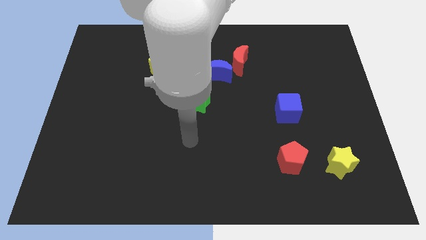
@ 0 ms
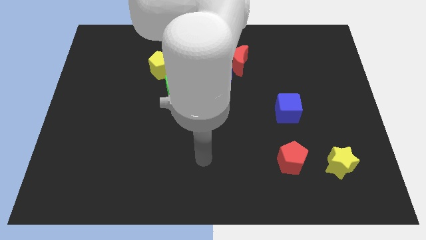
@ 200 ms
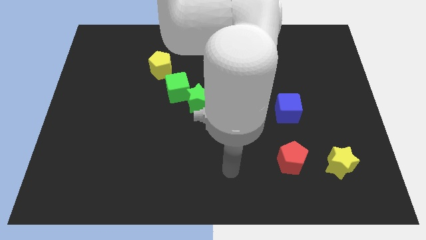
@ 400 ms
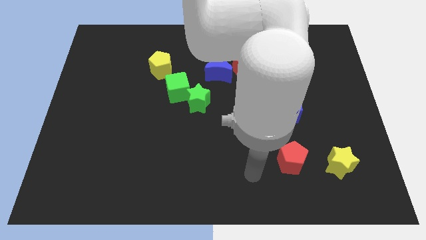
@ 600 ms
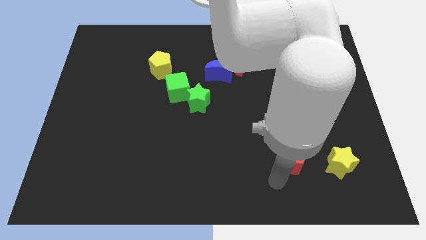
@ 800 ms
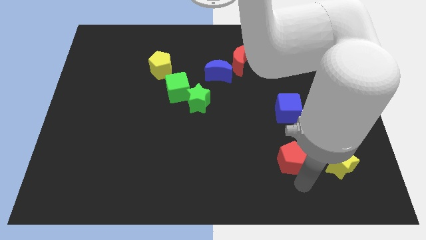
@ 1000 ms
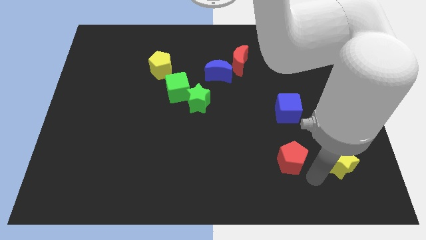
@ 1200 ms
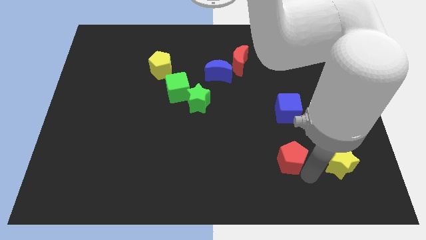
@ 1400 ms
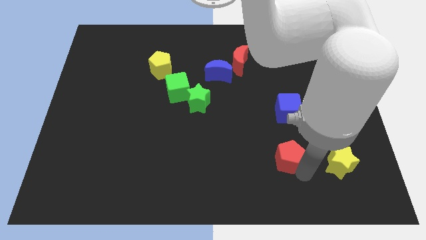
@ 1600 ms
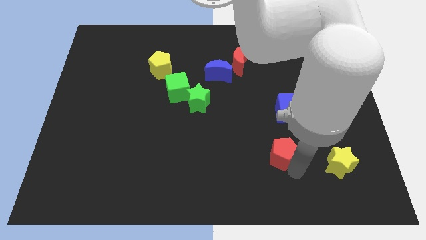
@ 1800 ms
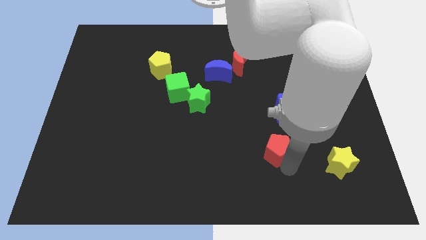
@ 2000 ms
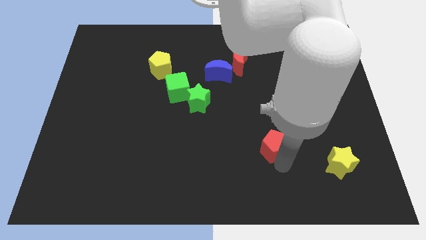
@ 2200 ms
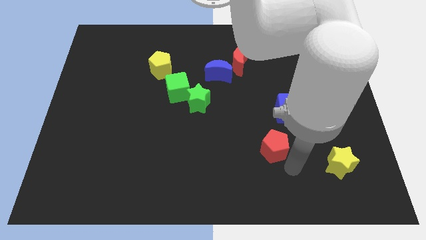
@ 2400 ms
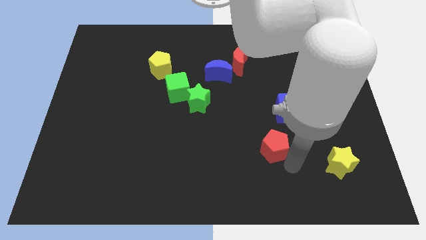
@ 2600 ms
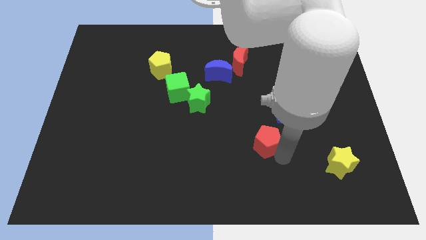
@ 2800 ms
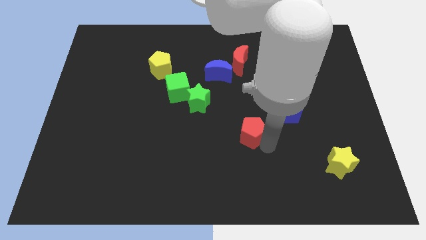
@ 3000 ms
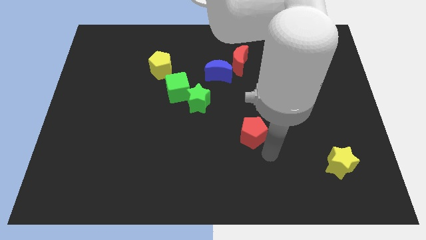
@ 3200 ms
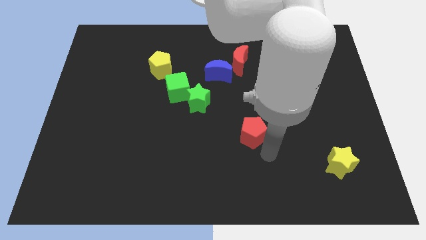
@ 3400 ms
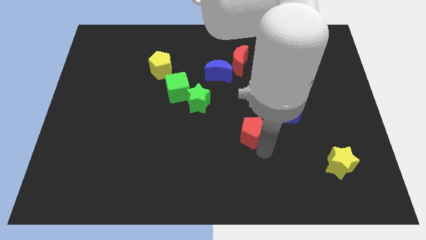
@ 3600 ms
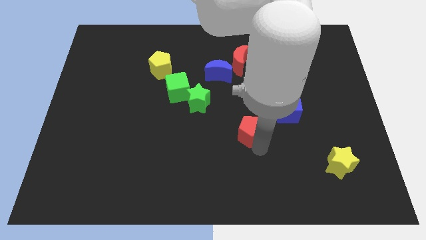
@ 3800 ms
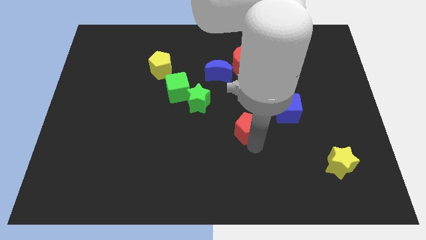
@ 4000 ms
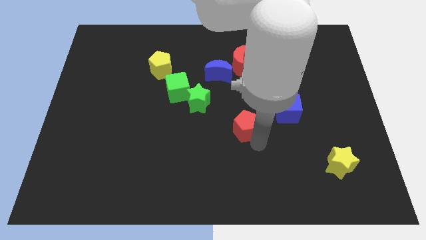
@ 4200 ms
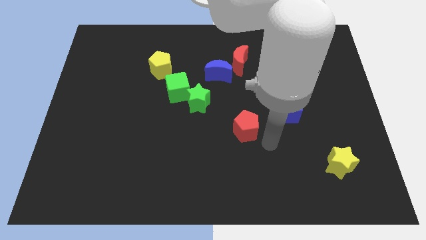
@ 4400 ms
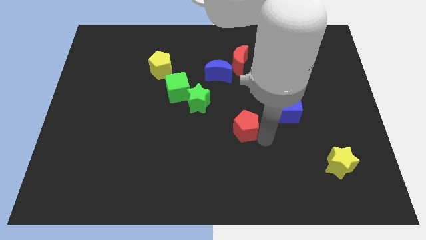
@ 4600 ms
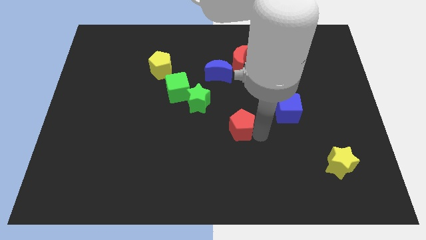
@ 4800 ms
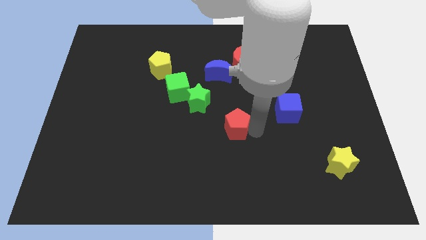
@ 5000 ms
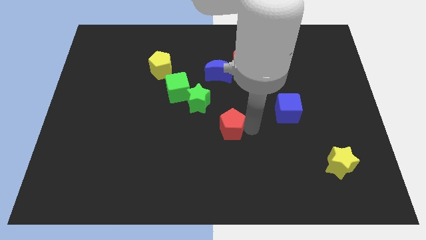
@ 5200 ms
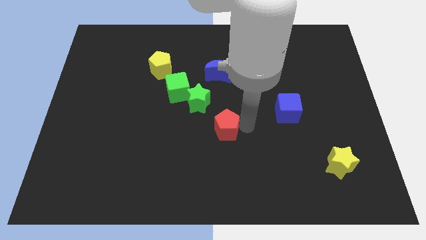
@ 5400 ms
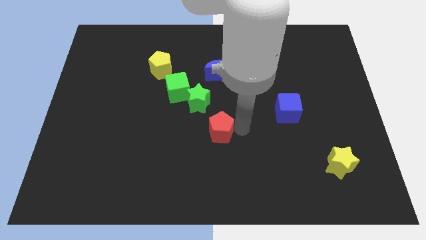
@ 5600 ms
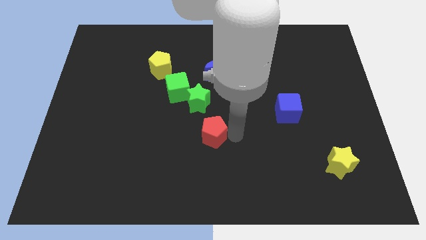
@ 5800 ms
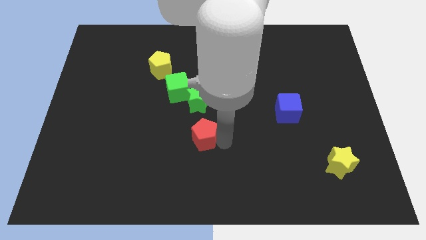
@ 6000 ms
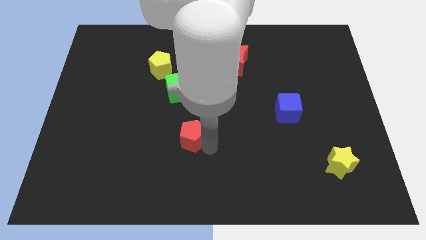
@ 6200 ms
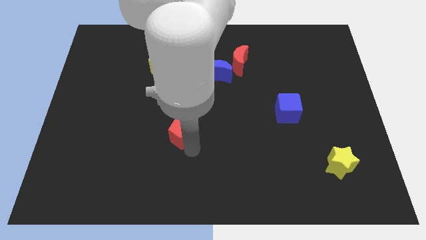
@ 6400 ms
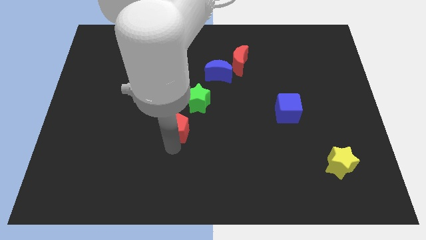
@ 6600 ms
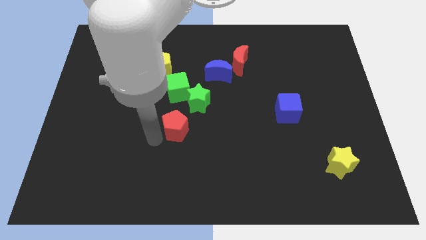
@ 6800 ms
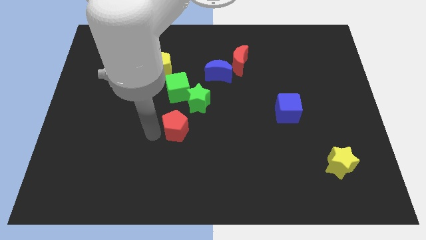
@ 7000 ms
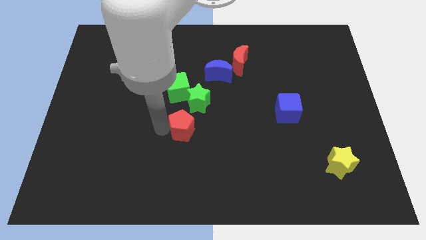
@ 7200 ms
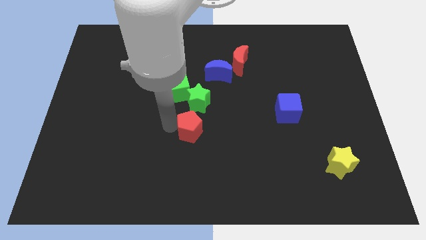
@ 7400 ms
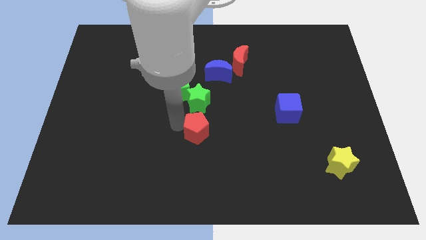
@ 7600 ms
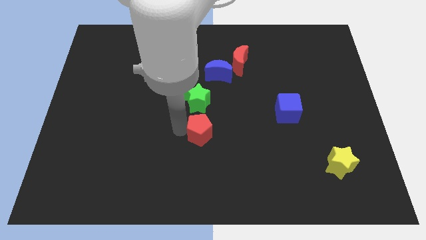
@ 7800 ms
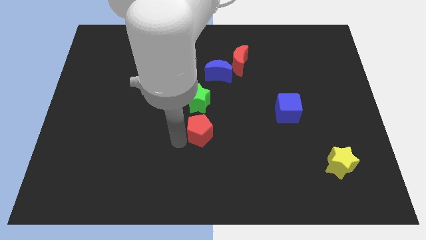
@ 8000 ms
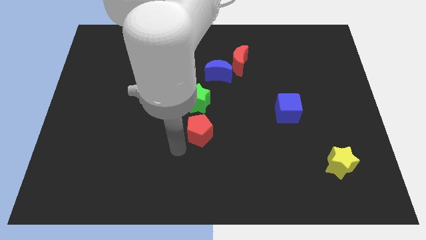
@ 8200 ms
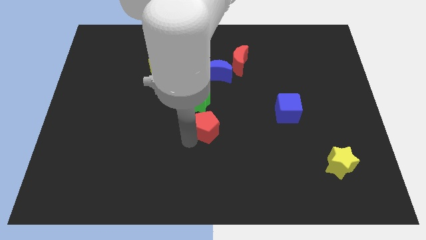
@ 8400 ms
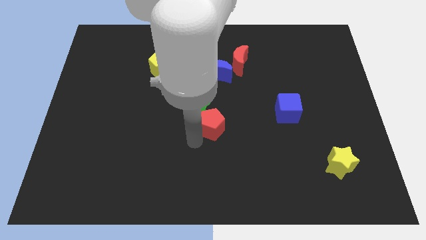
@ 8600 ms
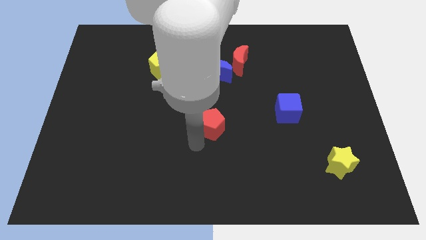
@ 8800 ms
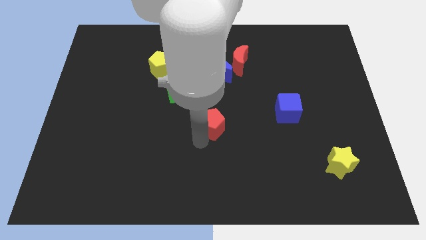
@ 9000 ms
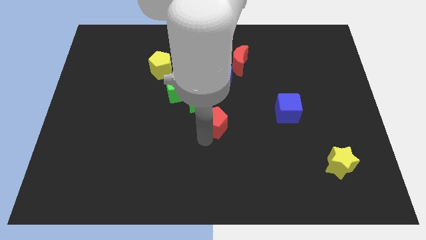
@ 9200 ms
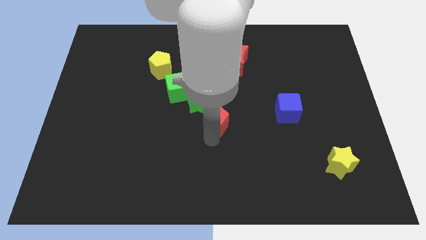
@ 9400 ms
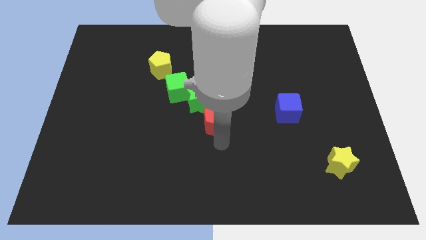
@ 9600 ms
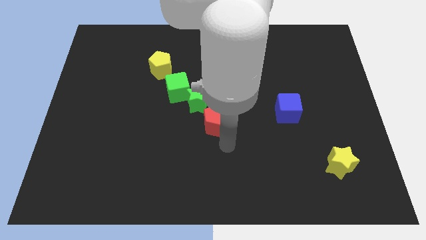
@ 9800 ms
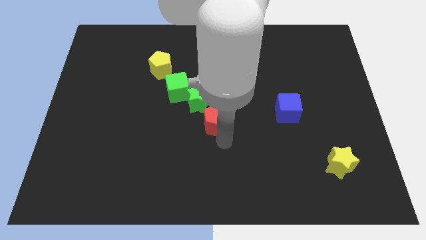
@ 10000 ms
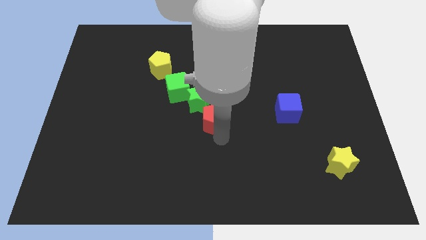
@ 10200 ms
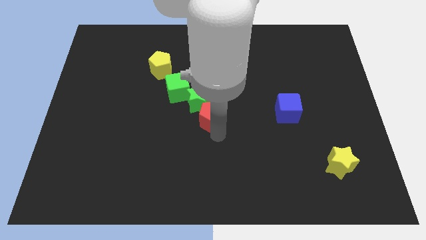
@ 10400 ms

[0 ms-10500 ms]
push the red pentagon towards the green star

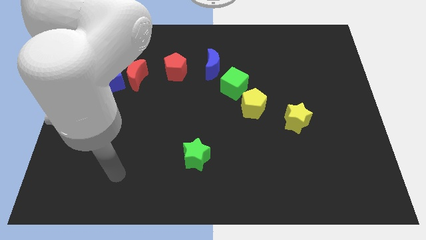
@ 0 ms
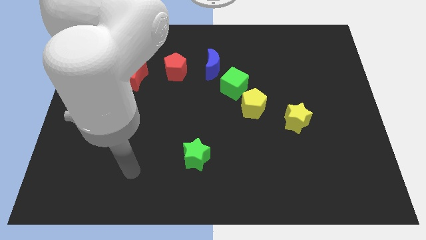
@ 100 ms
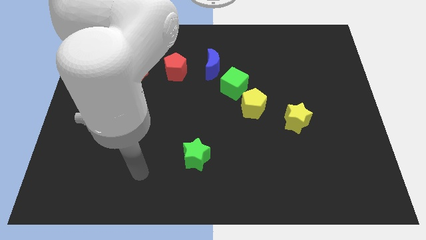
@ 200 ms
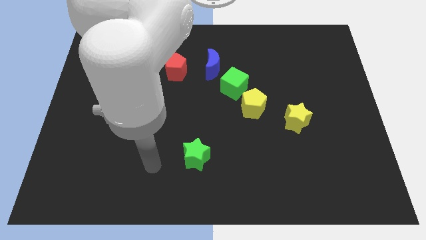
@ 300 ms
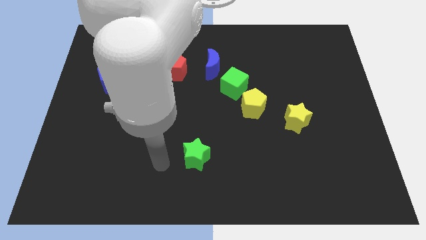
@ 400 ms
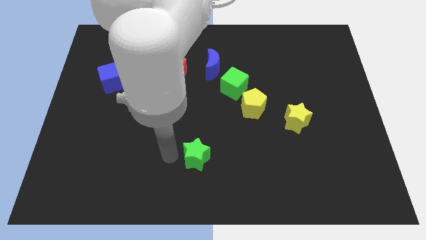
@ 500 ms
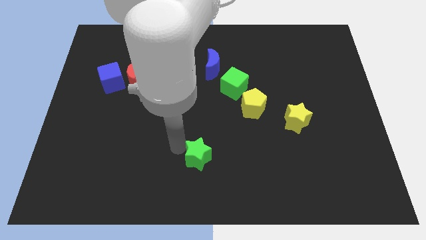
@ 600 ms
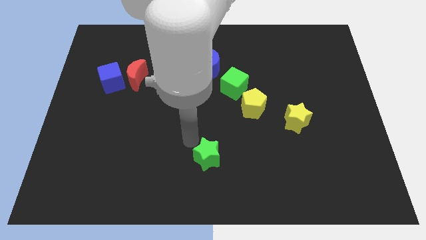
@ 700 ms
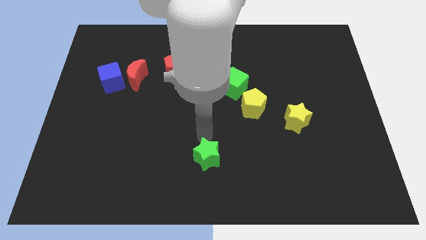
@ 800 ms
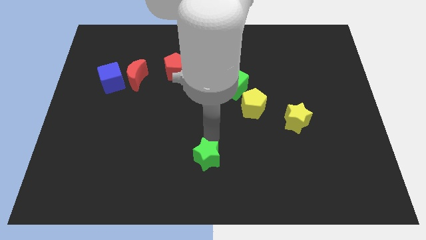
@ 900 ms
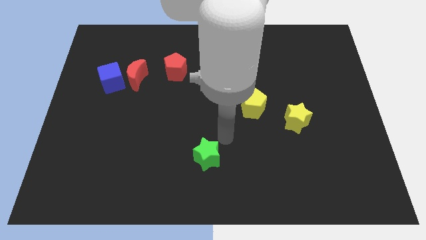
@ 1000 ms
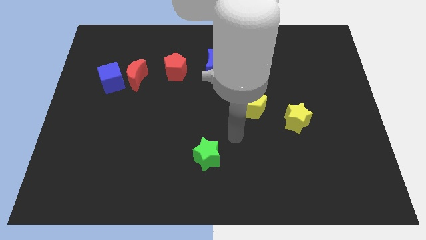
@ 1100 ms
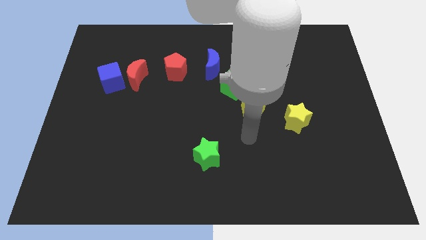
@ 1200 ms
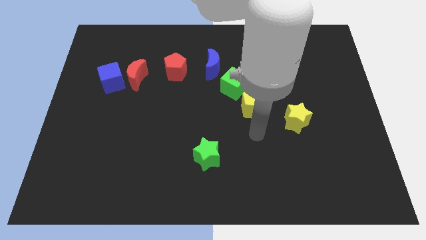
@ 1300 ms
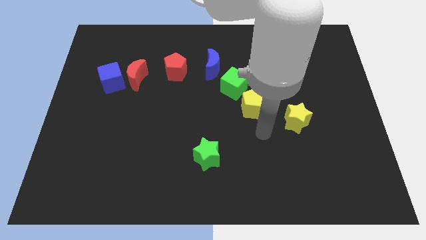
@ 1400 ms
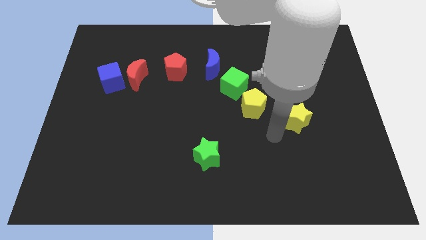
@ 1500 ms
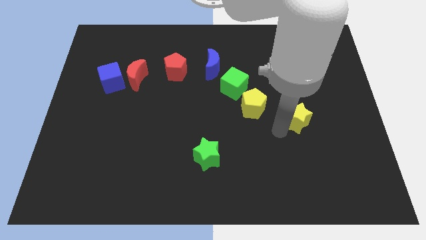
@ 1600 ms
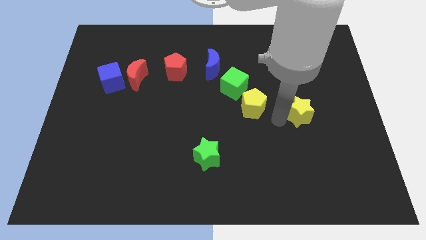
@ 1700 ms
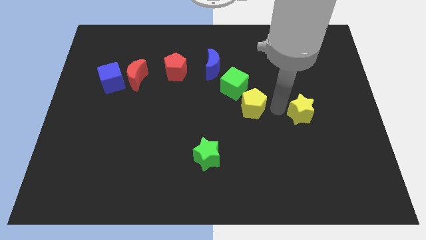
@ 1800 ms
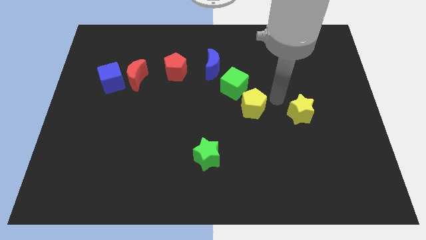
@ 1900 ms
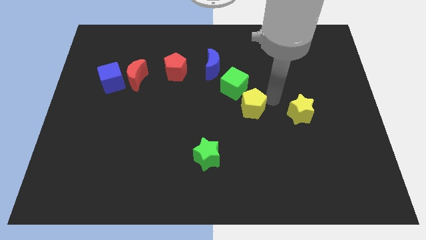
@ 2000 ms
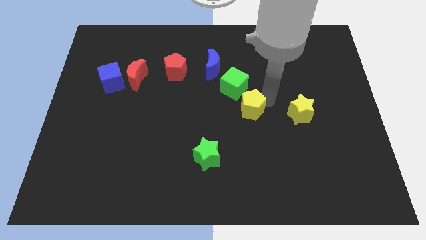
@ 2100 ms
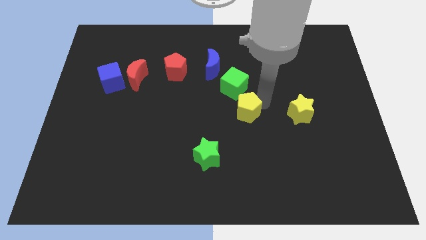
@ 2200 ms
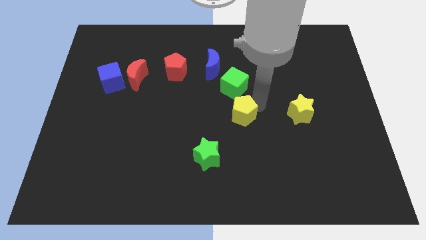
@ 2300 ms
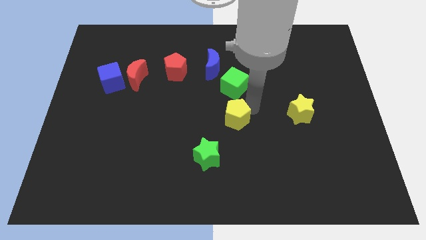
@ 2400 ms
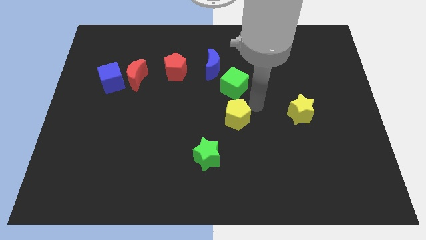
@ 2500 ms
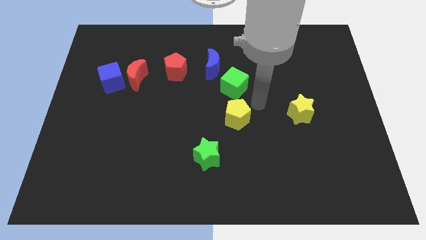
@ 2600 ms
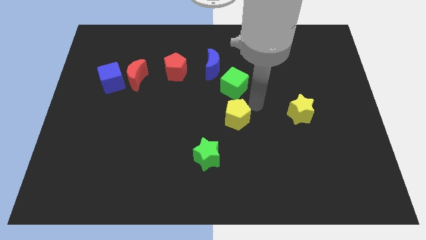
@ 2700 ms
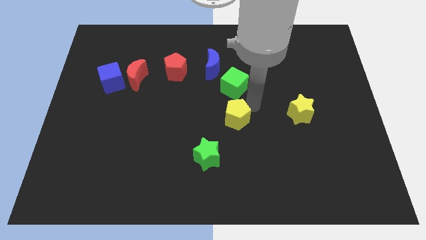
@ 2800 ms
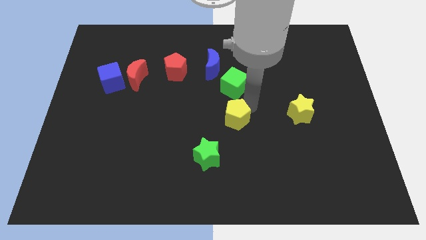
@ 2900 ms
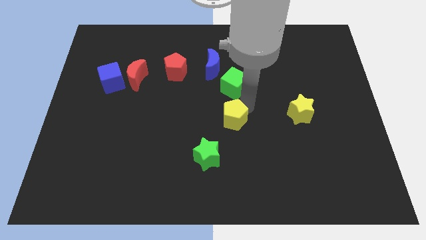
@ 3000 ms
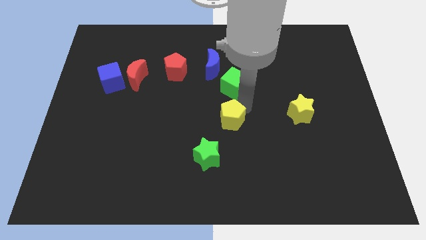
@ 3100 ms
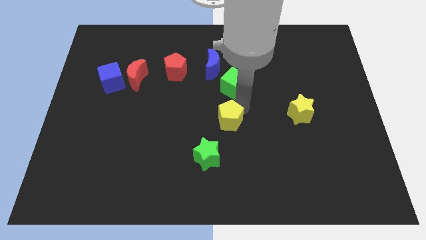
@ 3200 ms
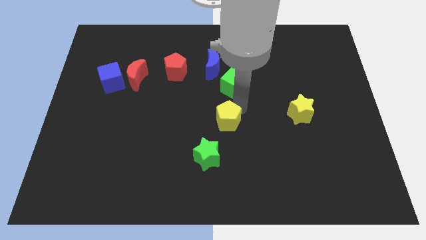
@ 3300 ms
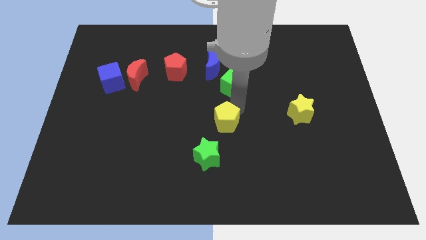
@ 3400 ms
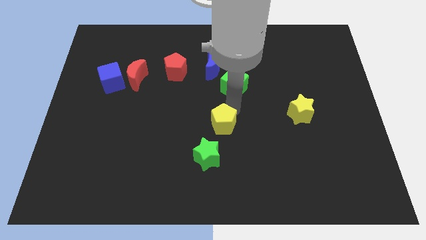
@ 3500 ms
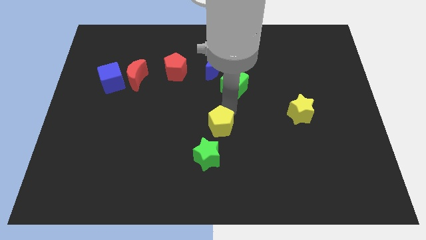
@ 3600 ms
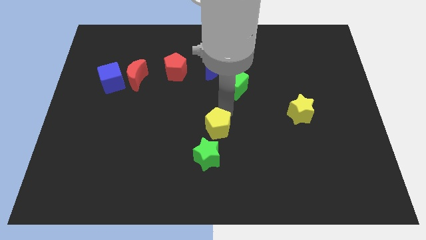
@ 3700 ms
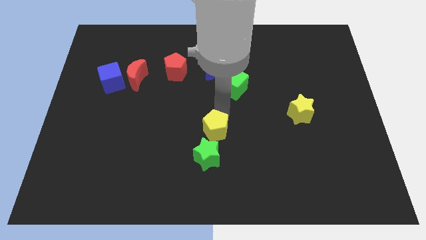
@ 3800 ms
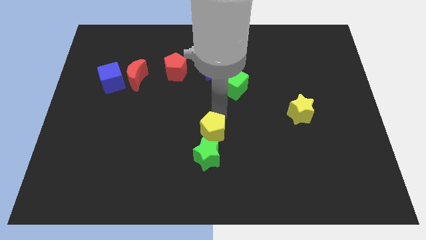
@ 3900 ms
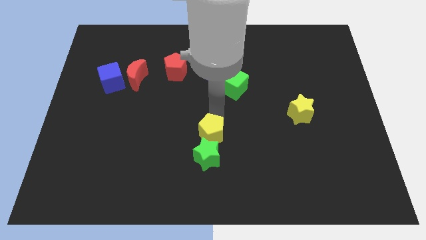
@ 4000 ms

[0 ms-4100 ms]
push the yellow pentagon close to the green star
